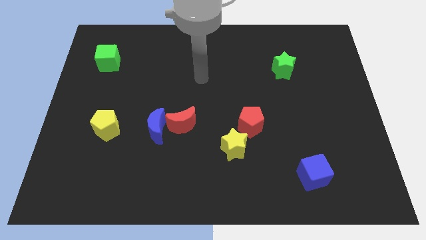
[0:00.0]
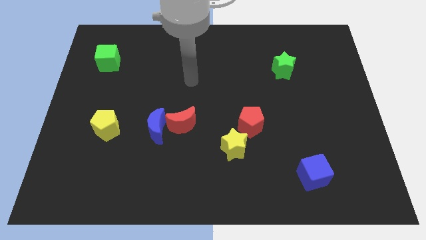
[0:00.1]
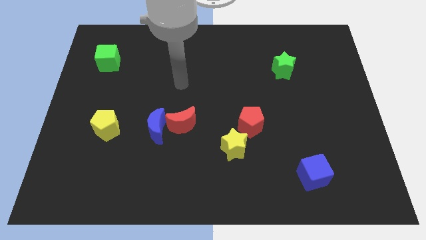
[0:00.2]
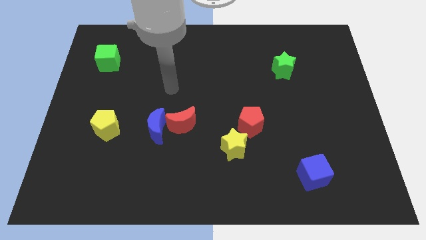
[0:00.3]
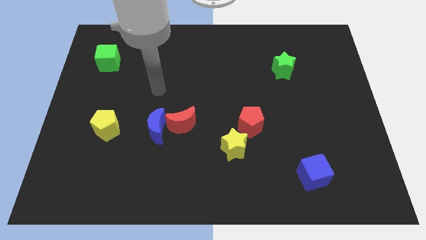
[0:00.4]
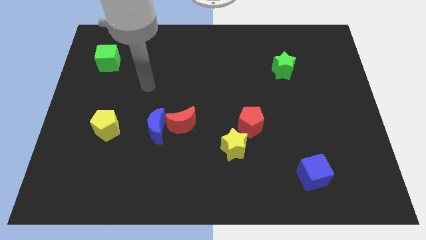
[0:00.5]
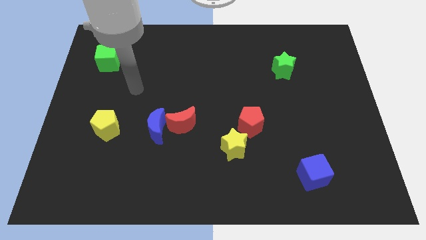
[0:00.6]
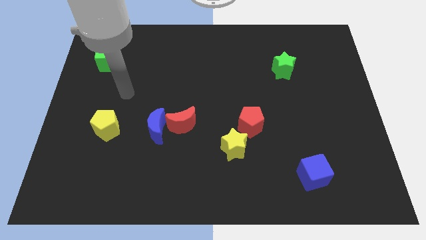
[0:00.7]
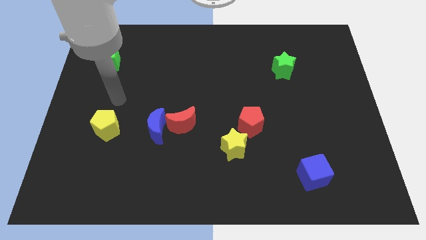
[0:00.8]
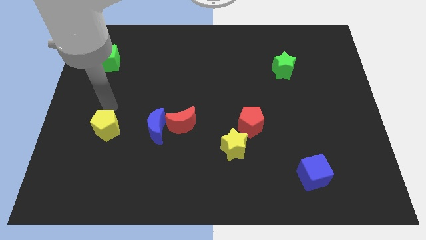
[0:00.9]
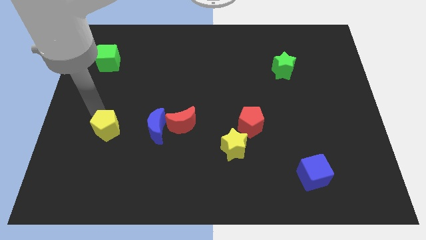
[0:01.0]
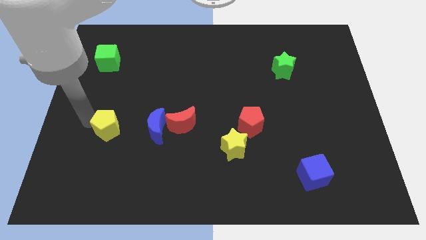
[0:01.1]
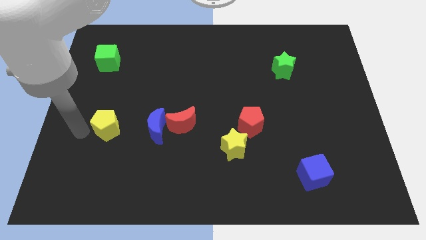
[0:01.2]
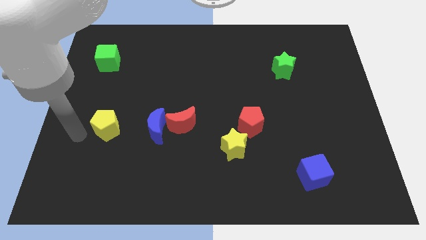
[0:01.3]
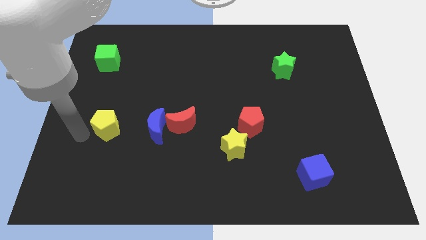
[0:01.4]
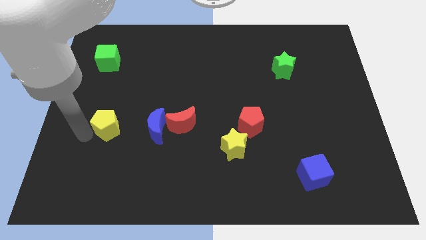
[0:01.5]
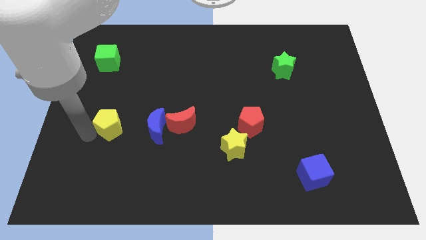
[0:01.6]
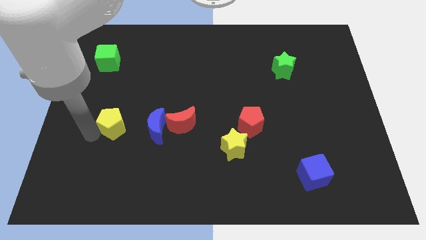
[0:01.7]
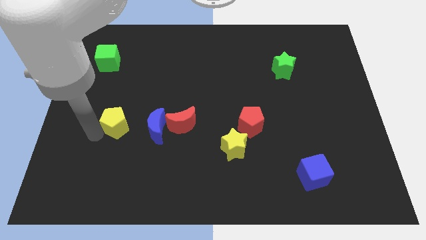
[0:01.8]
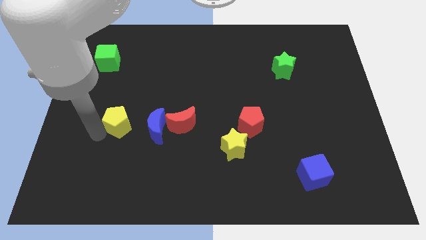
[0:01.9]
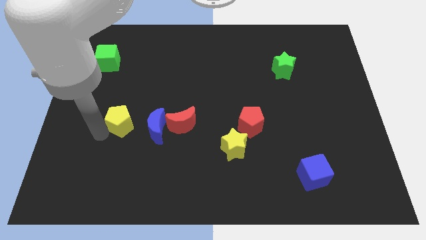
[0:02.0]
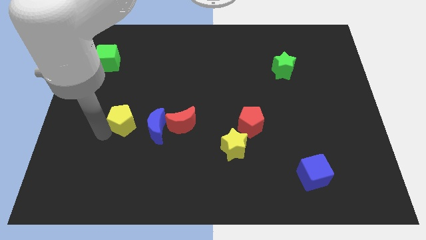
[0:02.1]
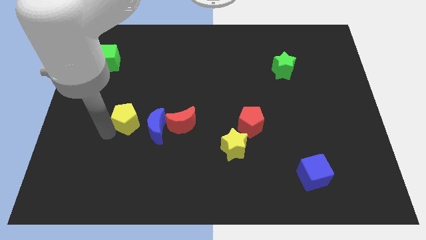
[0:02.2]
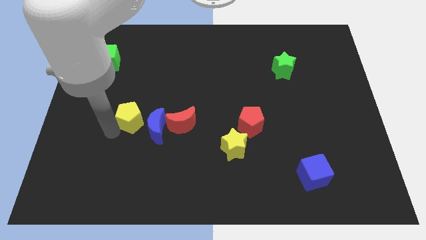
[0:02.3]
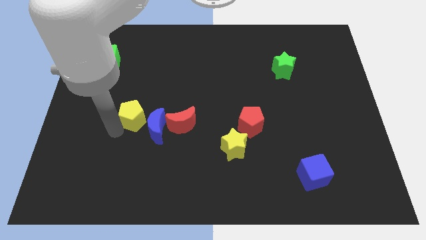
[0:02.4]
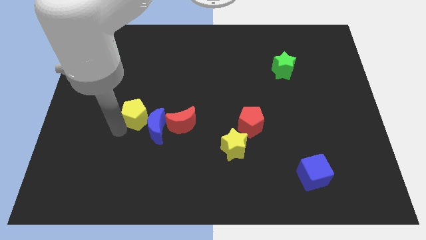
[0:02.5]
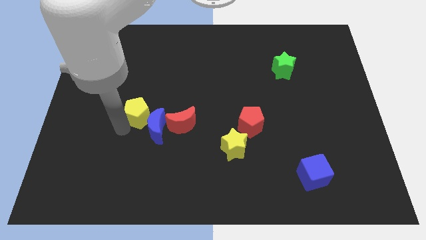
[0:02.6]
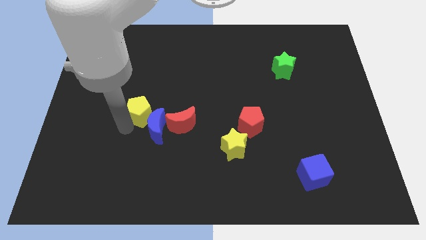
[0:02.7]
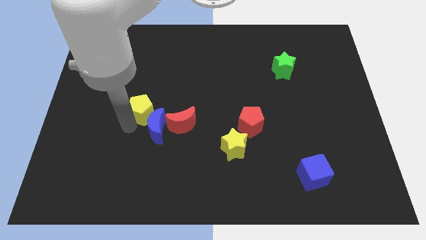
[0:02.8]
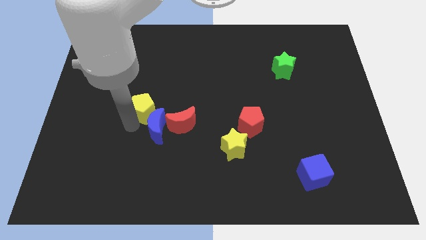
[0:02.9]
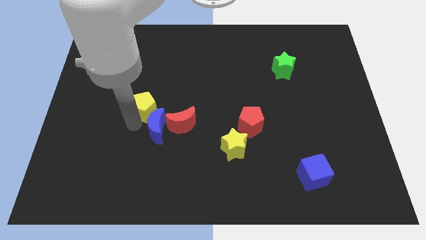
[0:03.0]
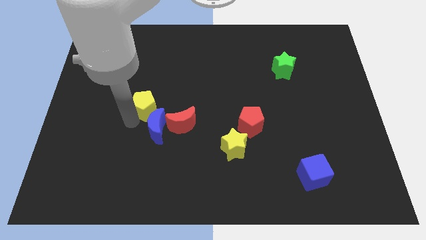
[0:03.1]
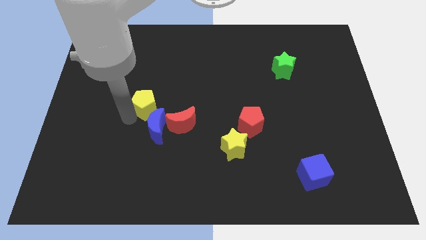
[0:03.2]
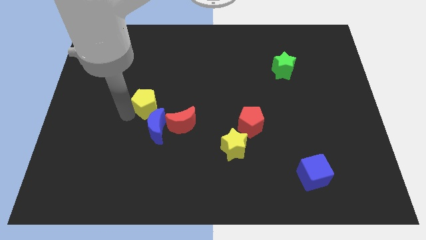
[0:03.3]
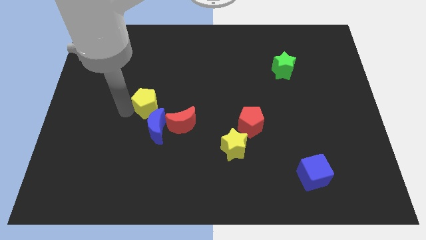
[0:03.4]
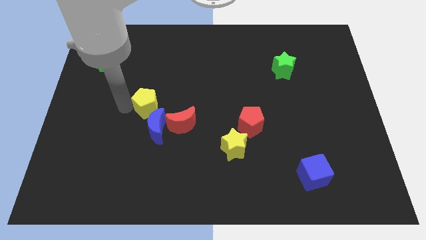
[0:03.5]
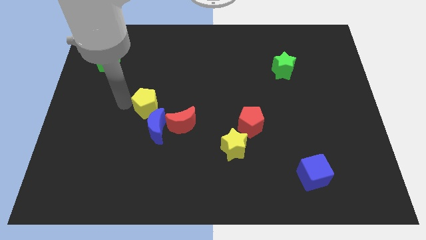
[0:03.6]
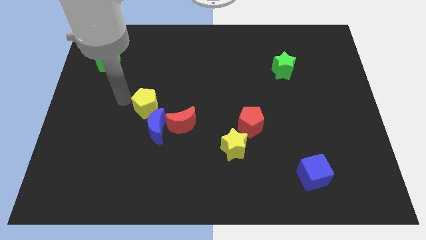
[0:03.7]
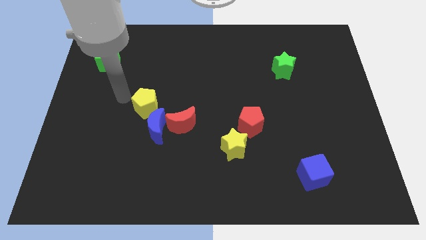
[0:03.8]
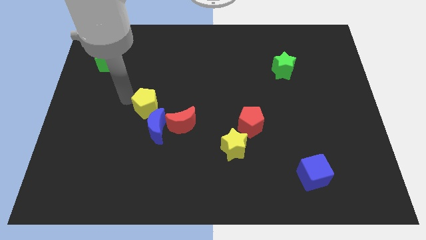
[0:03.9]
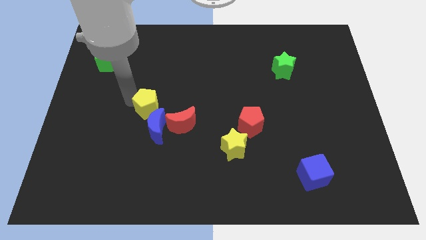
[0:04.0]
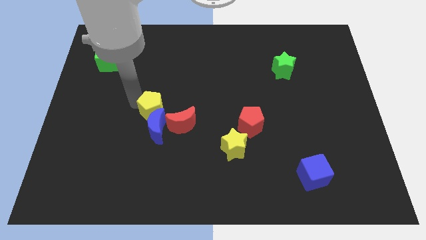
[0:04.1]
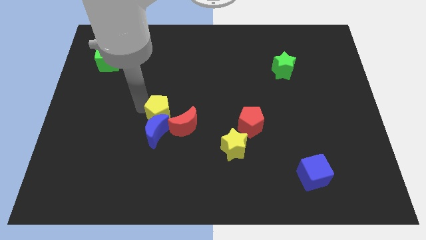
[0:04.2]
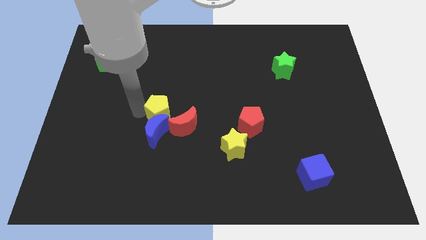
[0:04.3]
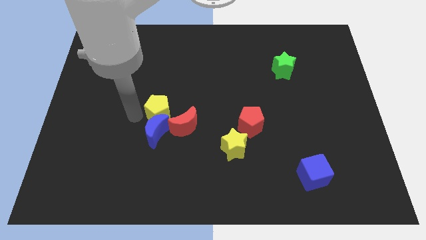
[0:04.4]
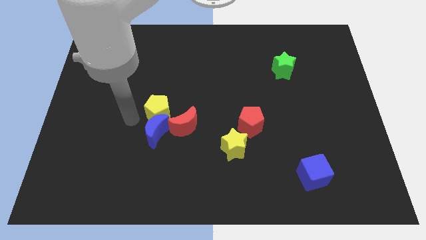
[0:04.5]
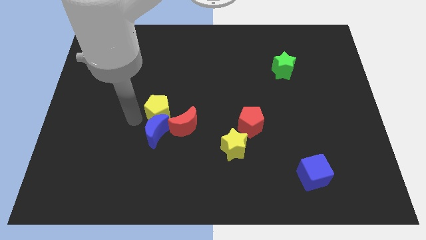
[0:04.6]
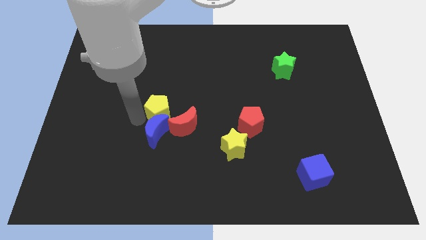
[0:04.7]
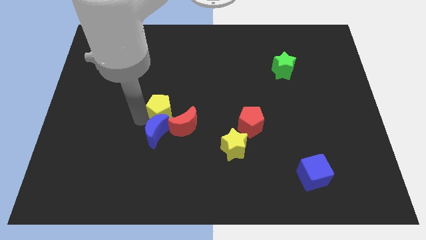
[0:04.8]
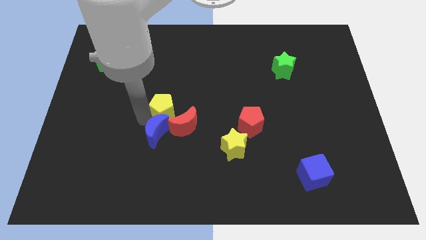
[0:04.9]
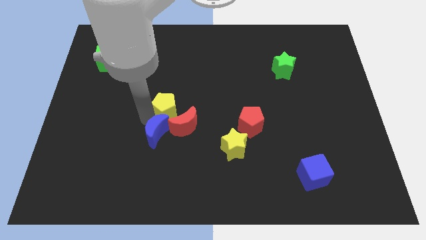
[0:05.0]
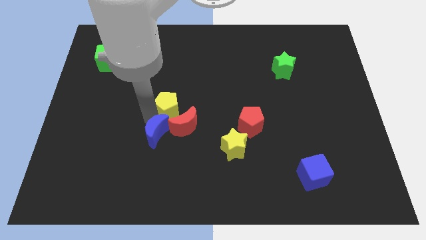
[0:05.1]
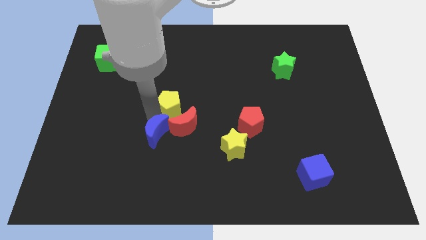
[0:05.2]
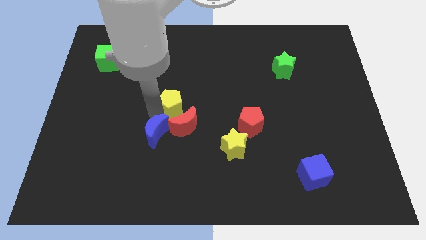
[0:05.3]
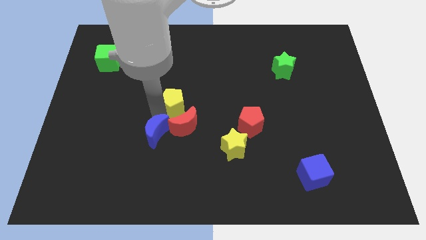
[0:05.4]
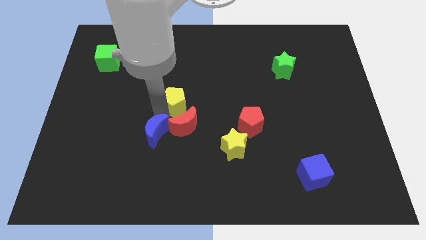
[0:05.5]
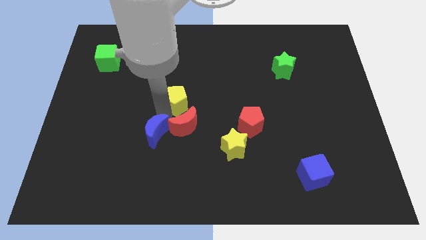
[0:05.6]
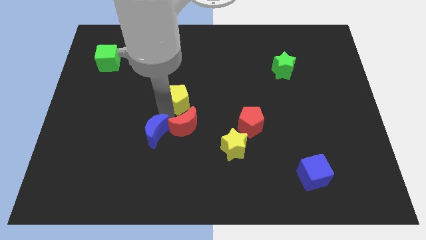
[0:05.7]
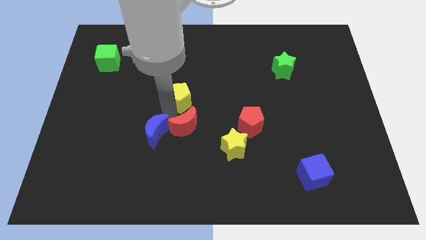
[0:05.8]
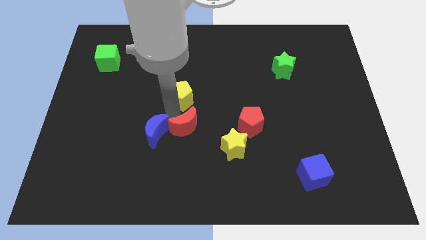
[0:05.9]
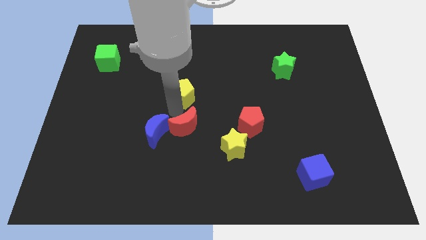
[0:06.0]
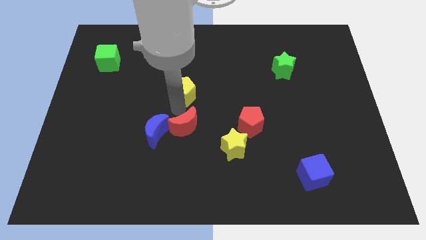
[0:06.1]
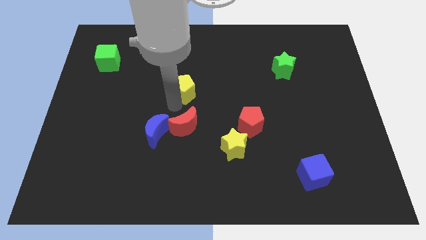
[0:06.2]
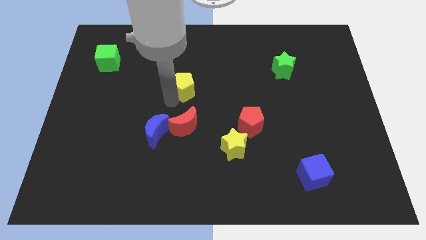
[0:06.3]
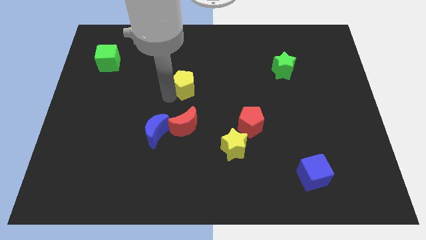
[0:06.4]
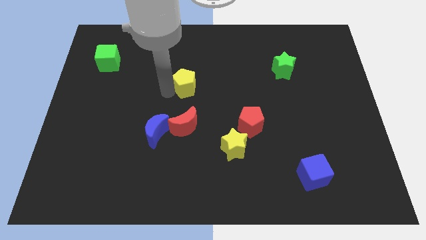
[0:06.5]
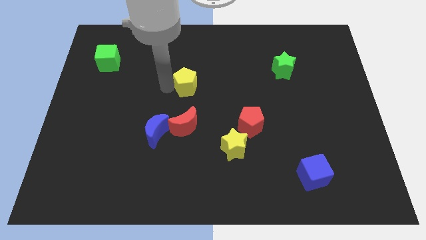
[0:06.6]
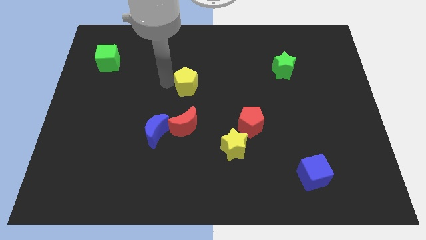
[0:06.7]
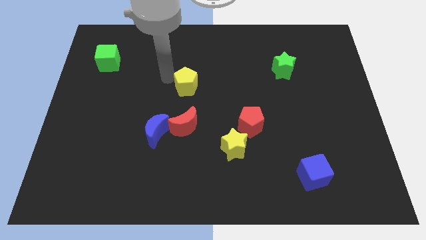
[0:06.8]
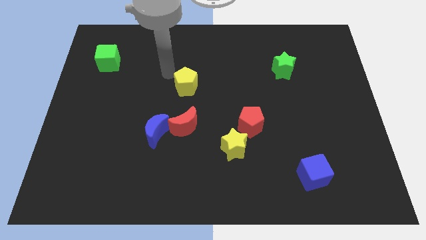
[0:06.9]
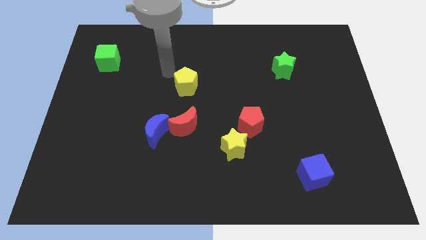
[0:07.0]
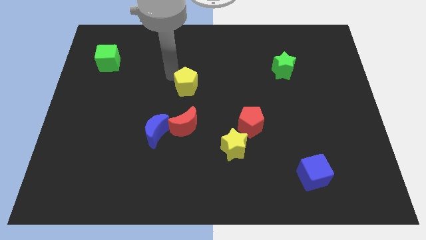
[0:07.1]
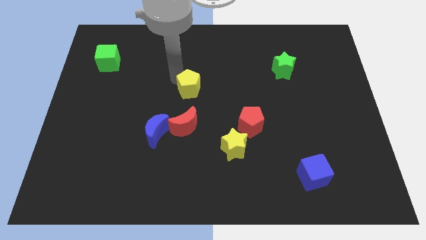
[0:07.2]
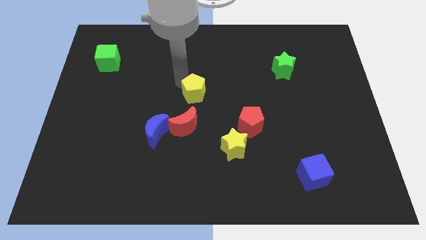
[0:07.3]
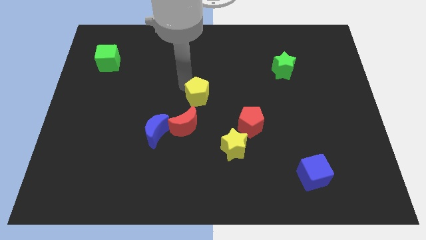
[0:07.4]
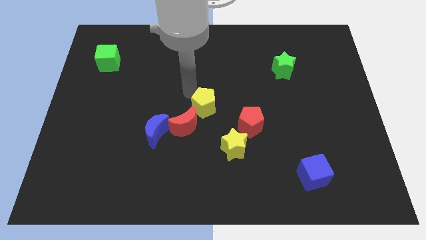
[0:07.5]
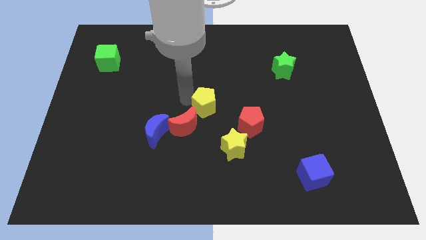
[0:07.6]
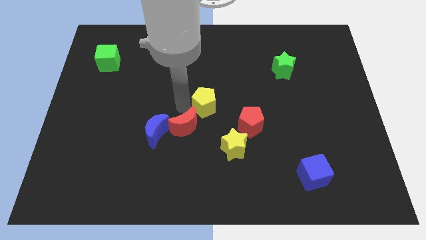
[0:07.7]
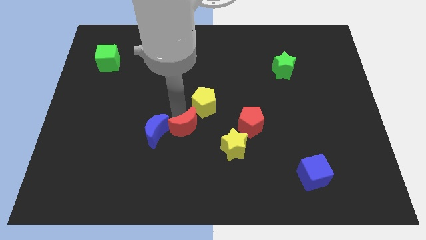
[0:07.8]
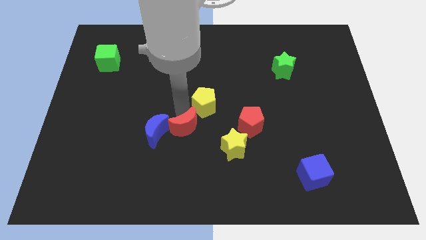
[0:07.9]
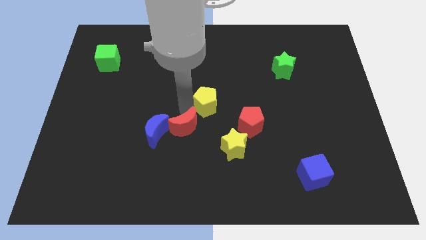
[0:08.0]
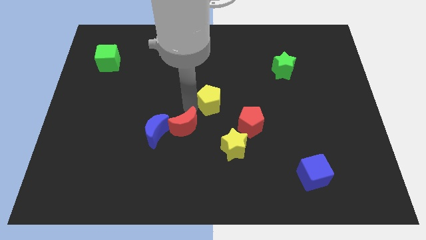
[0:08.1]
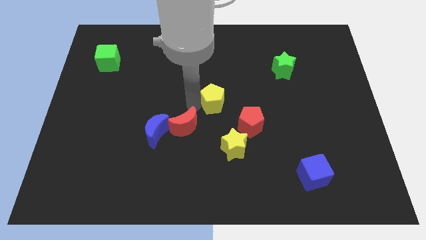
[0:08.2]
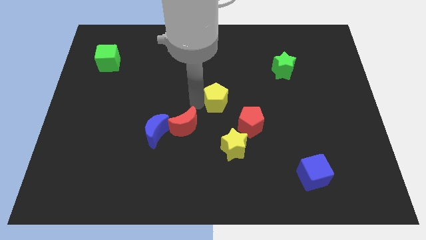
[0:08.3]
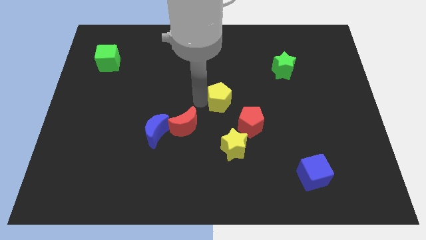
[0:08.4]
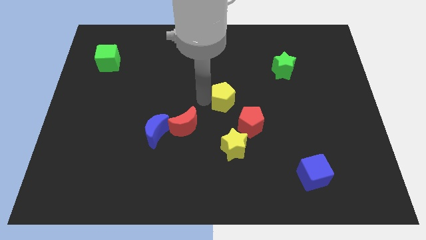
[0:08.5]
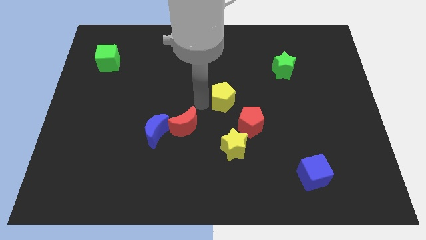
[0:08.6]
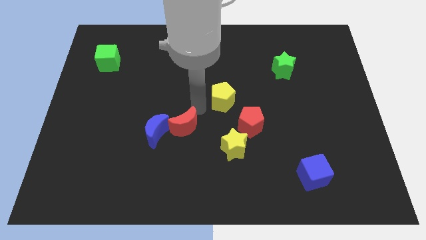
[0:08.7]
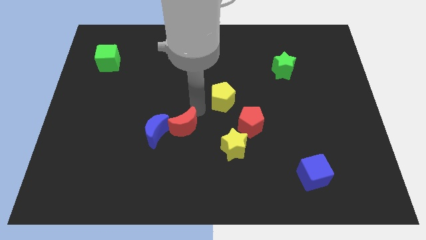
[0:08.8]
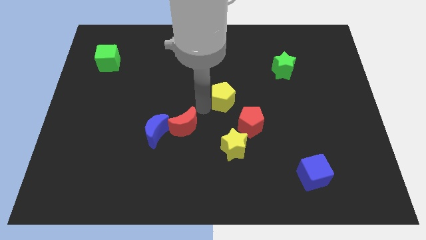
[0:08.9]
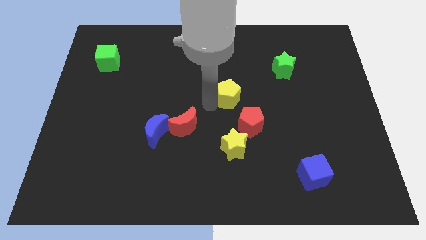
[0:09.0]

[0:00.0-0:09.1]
put the yellow pentagon above the red pentagon
